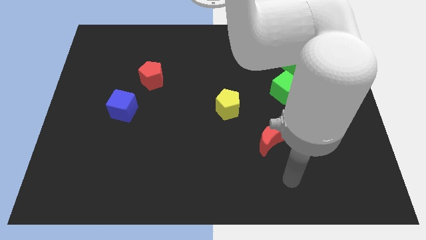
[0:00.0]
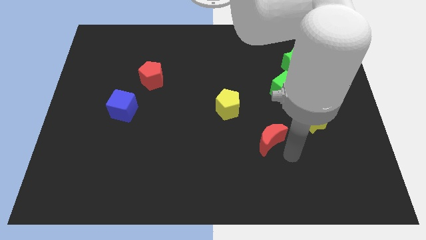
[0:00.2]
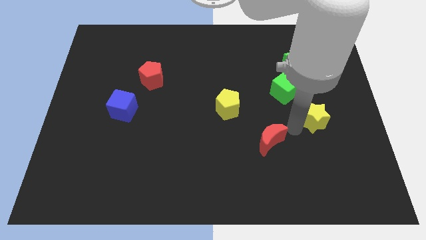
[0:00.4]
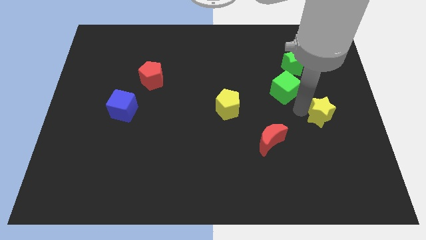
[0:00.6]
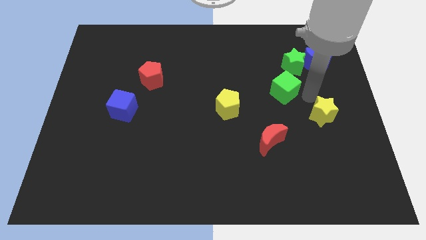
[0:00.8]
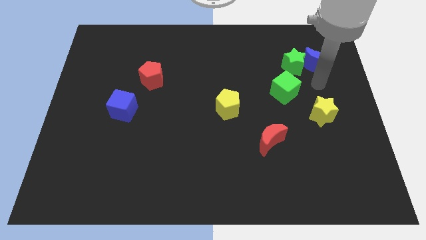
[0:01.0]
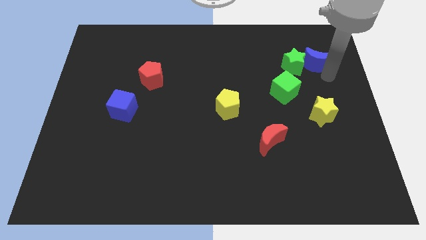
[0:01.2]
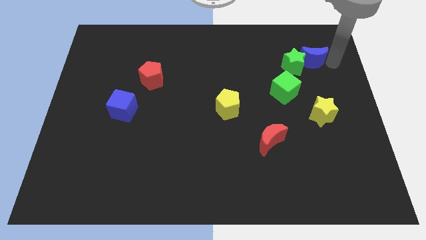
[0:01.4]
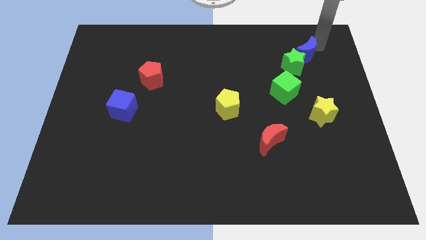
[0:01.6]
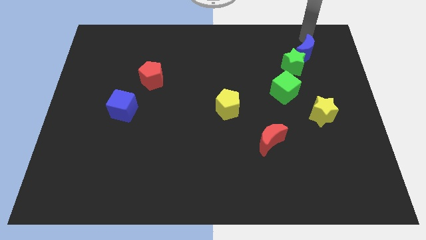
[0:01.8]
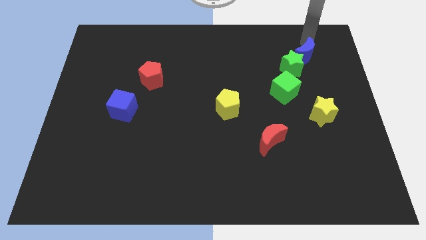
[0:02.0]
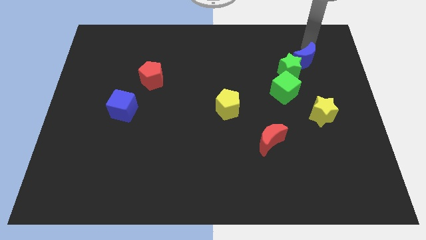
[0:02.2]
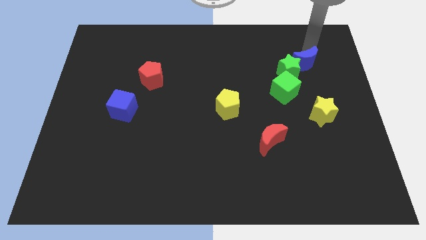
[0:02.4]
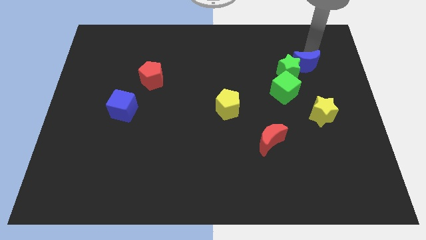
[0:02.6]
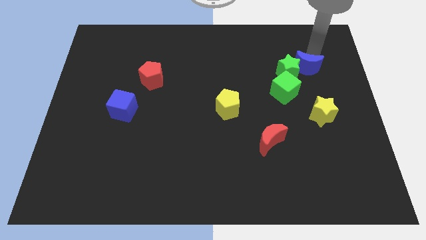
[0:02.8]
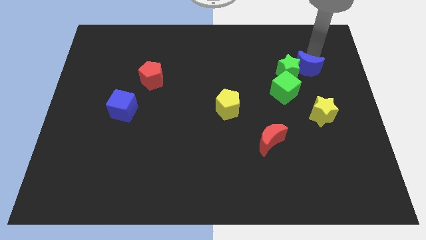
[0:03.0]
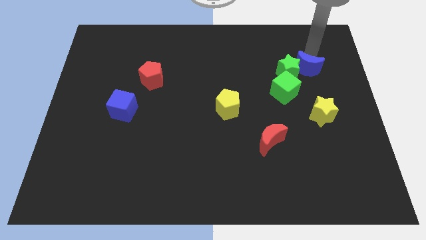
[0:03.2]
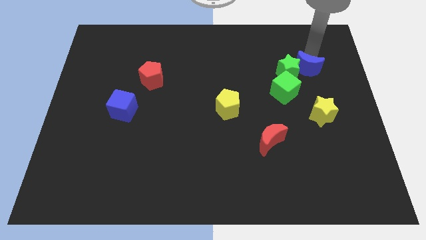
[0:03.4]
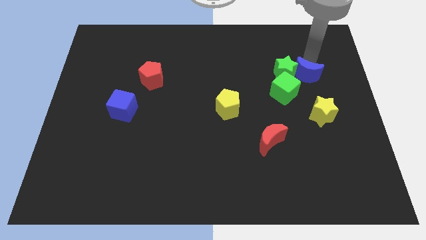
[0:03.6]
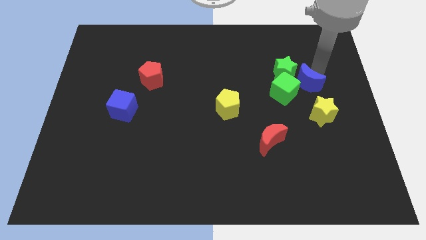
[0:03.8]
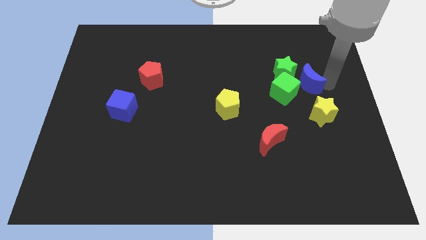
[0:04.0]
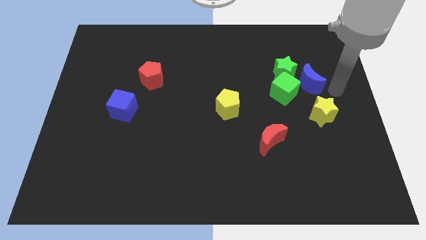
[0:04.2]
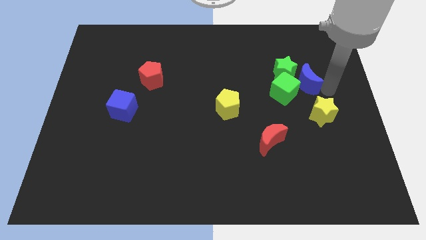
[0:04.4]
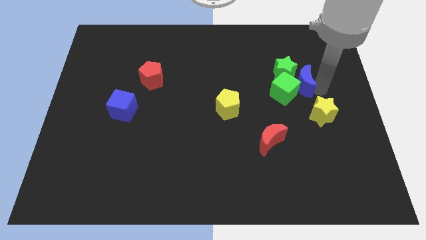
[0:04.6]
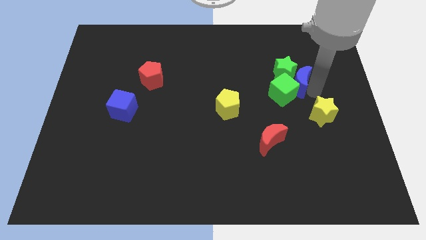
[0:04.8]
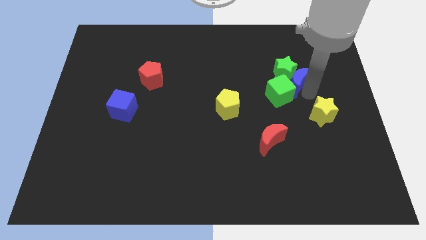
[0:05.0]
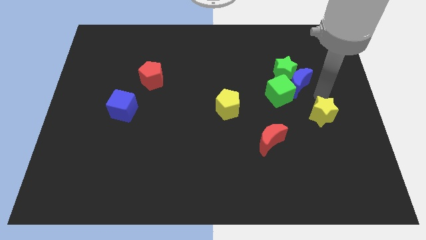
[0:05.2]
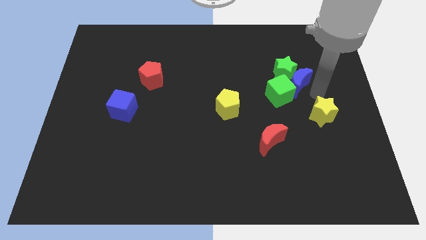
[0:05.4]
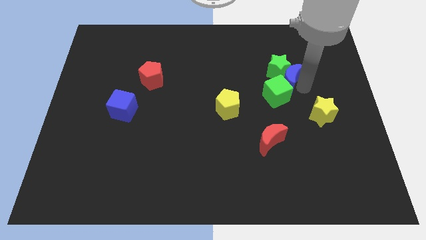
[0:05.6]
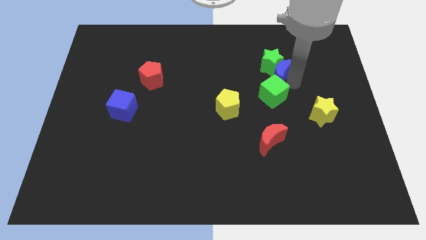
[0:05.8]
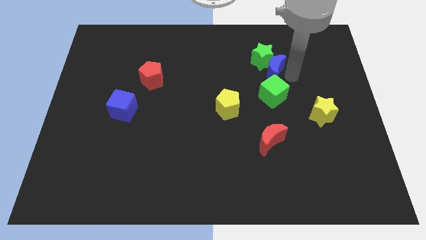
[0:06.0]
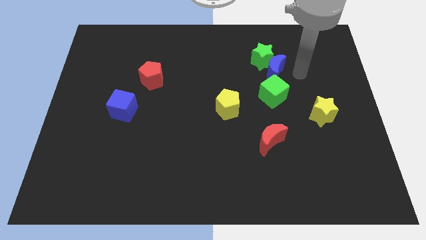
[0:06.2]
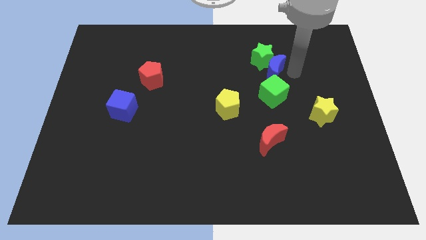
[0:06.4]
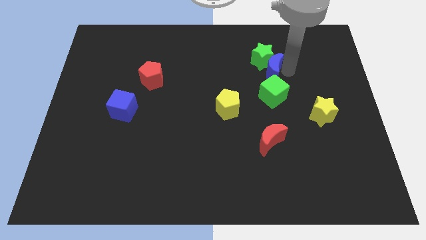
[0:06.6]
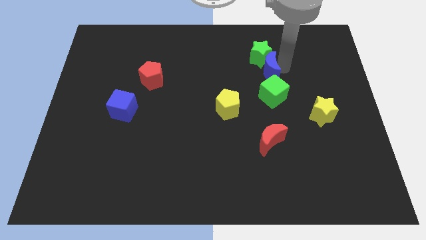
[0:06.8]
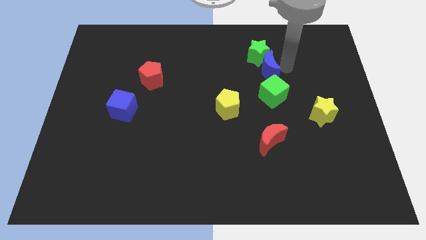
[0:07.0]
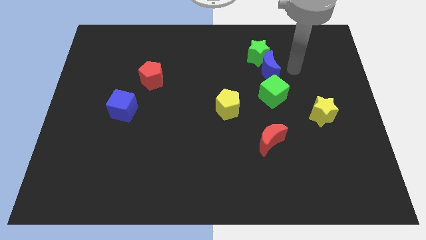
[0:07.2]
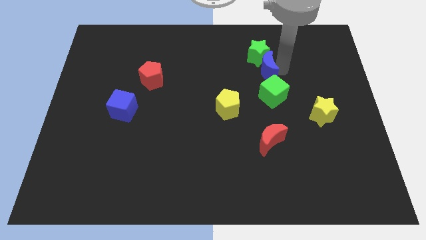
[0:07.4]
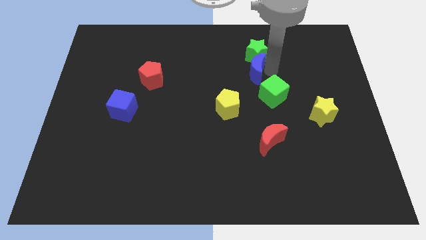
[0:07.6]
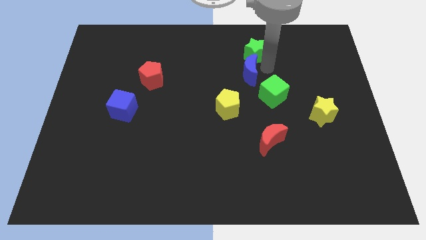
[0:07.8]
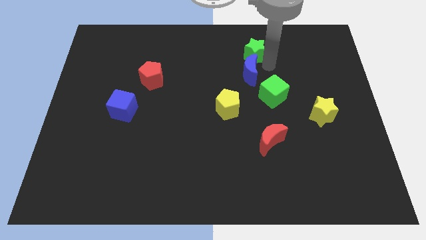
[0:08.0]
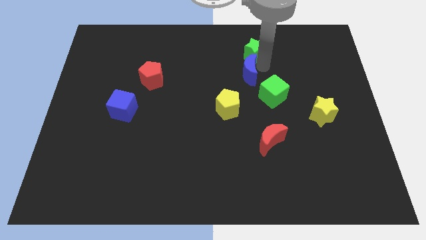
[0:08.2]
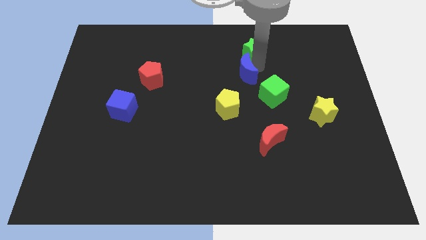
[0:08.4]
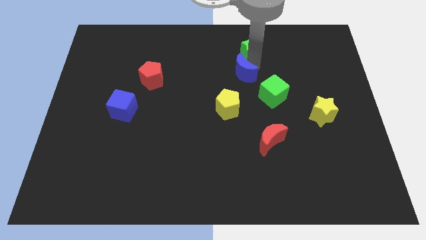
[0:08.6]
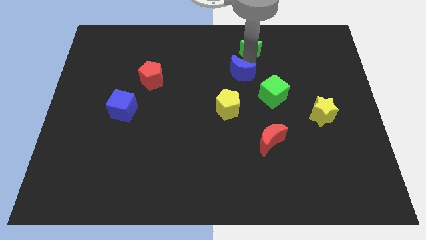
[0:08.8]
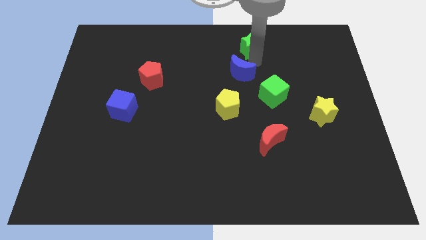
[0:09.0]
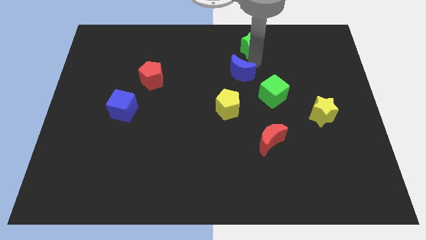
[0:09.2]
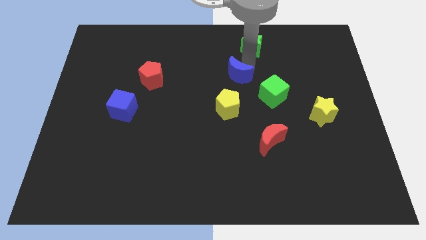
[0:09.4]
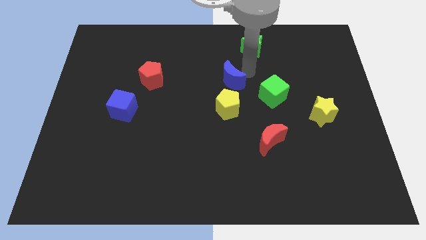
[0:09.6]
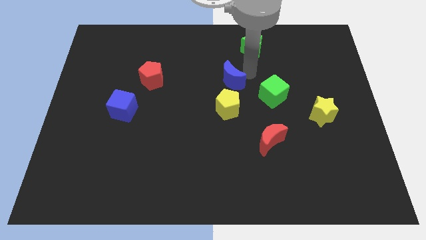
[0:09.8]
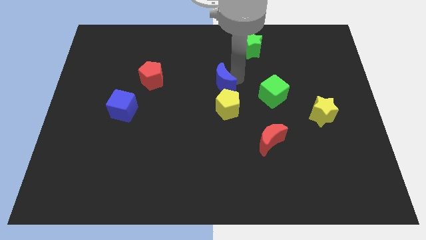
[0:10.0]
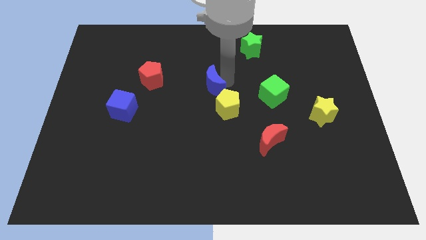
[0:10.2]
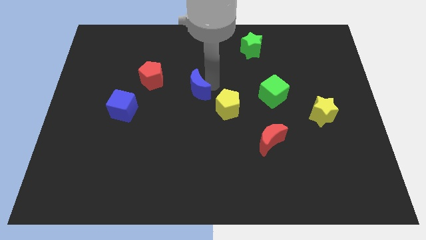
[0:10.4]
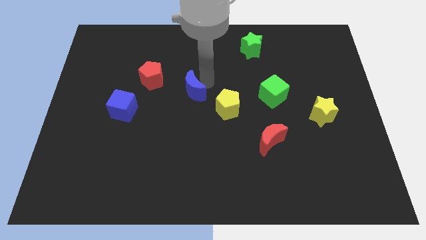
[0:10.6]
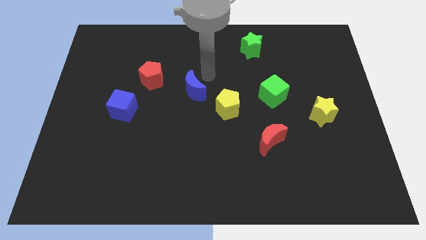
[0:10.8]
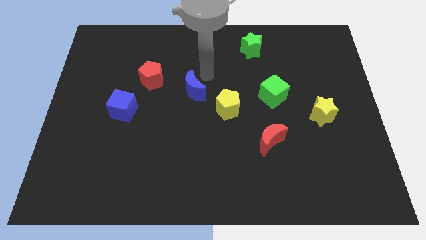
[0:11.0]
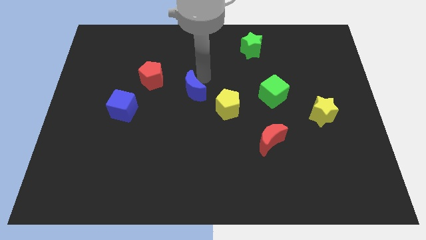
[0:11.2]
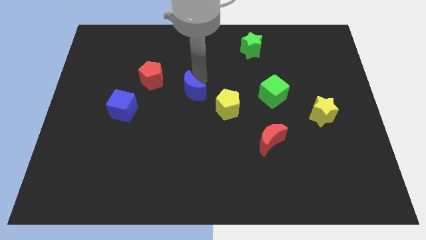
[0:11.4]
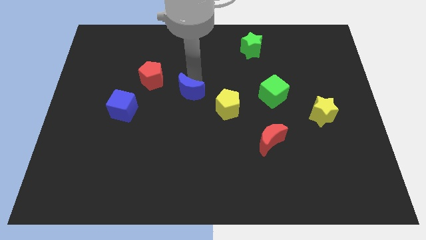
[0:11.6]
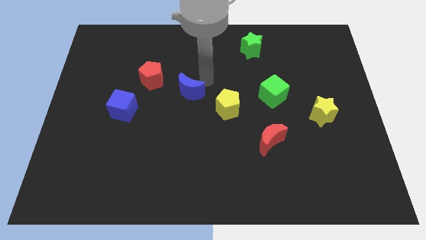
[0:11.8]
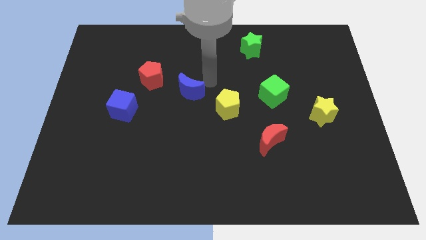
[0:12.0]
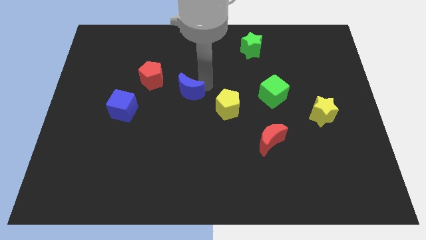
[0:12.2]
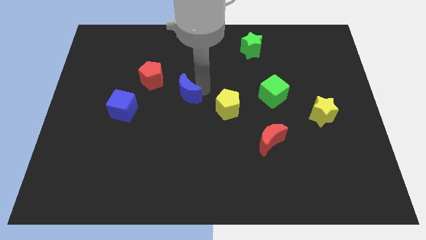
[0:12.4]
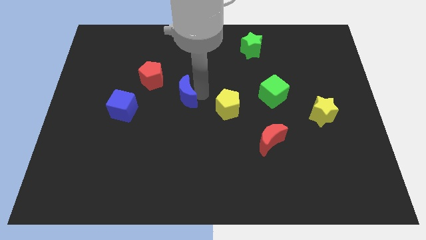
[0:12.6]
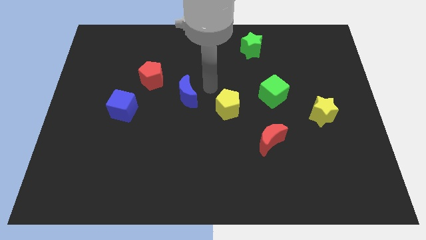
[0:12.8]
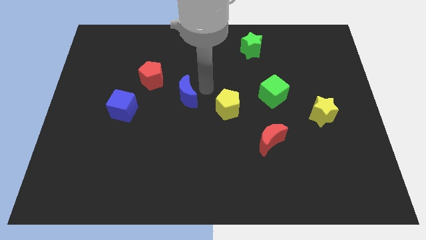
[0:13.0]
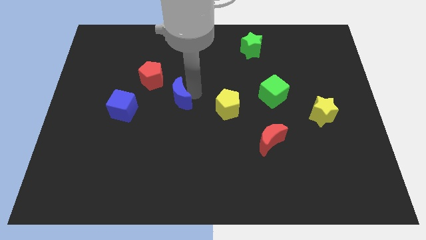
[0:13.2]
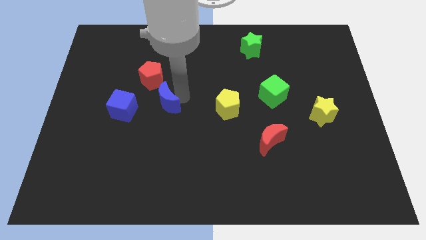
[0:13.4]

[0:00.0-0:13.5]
move the blue moon to the bottom of the red pentagon

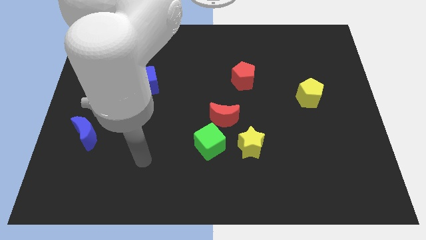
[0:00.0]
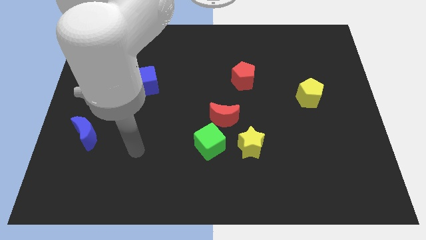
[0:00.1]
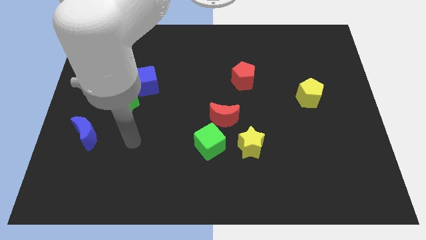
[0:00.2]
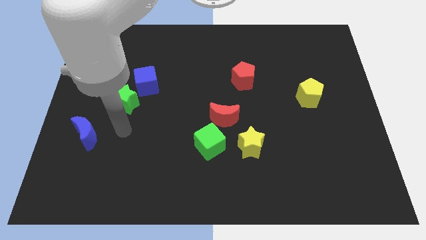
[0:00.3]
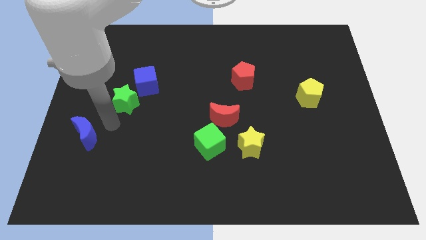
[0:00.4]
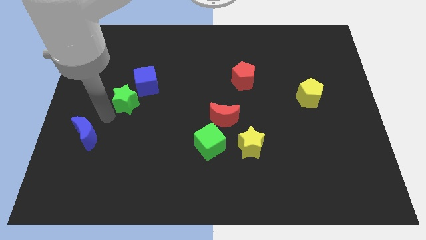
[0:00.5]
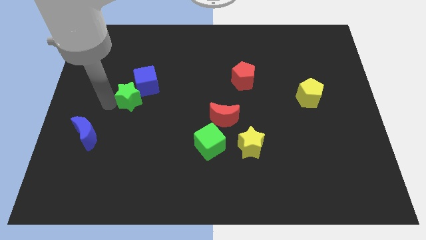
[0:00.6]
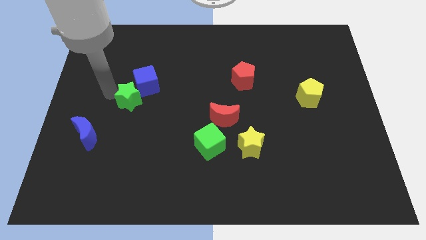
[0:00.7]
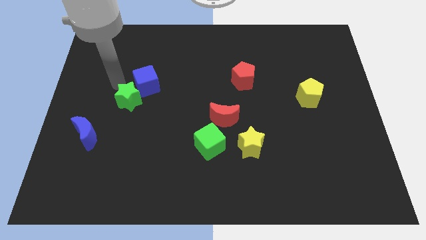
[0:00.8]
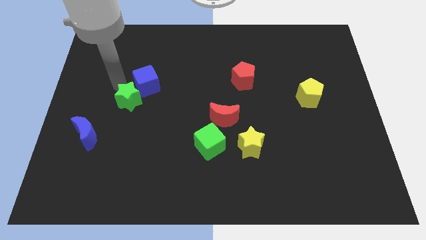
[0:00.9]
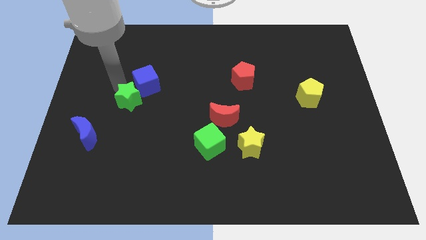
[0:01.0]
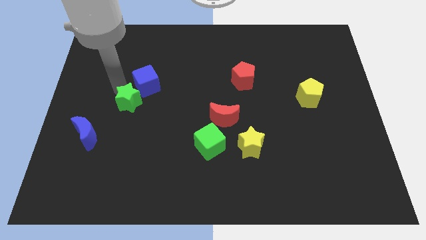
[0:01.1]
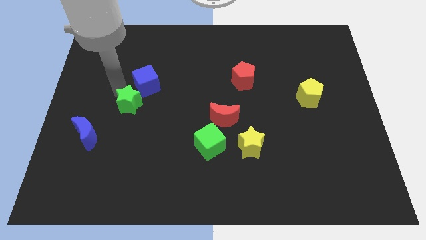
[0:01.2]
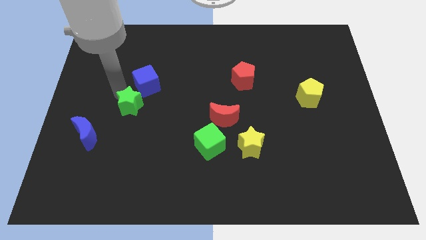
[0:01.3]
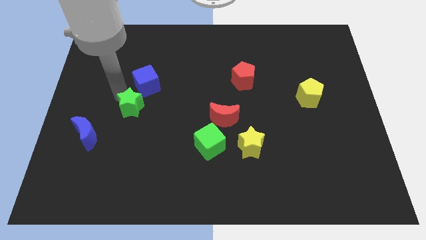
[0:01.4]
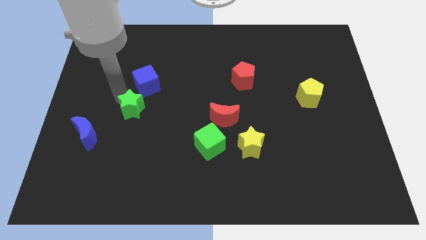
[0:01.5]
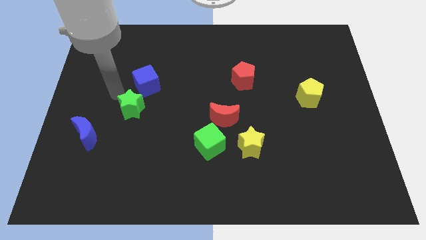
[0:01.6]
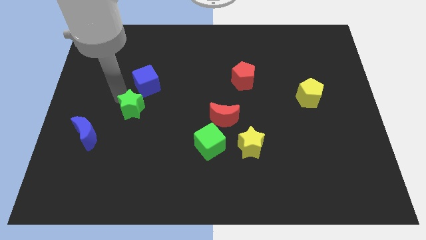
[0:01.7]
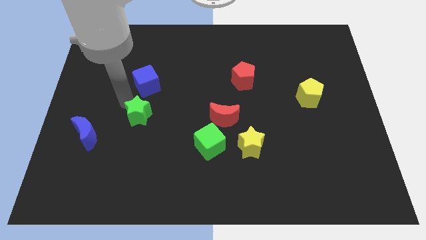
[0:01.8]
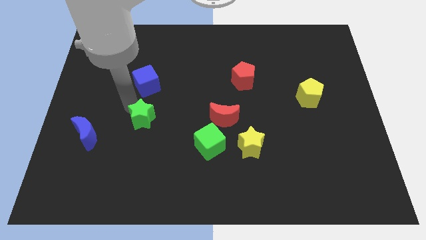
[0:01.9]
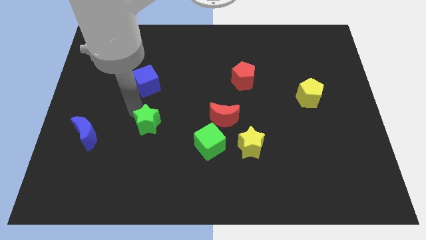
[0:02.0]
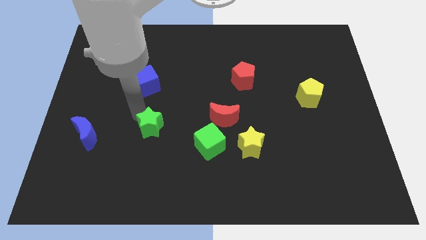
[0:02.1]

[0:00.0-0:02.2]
slide the green star left of the green cube
